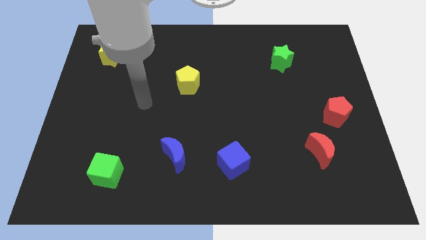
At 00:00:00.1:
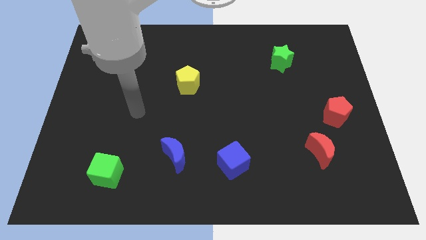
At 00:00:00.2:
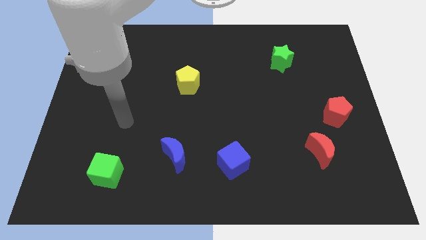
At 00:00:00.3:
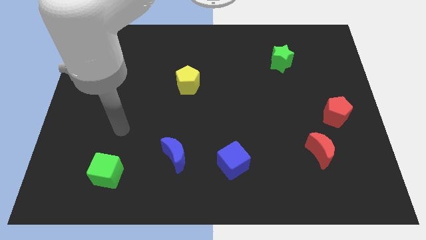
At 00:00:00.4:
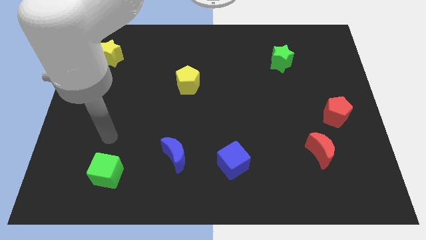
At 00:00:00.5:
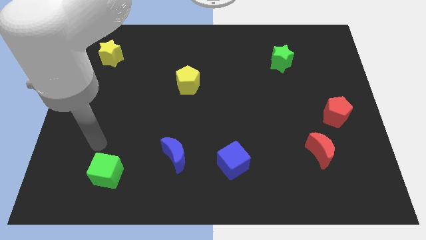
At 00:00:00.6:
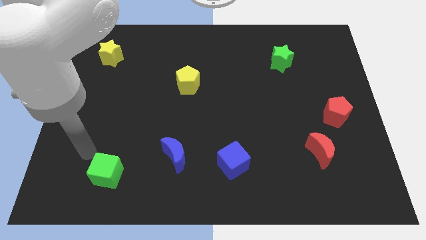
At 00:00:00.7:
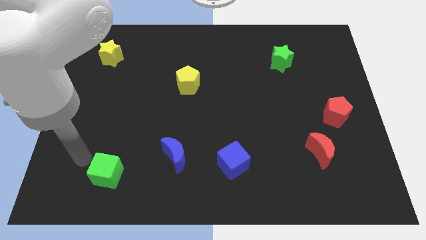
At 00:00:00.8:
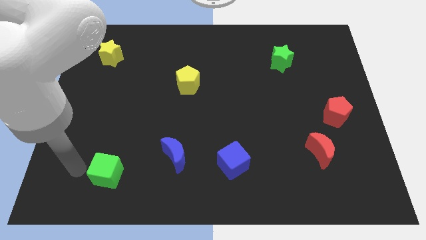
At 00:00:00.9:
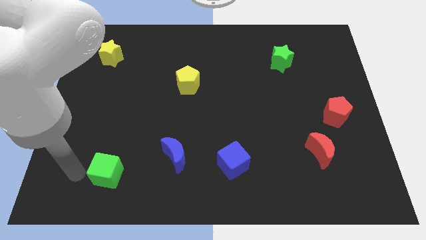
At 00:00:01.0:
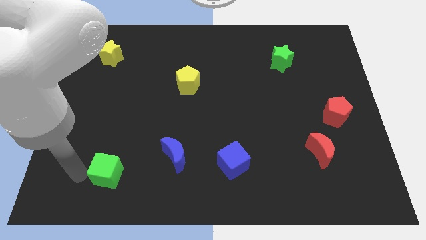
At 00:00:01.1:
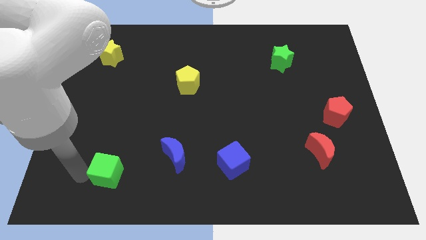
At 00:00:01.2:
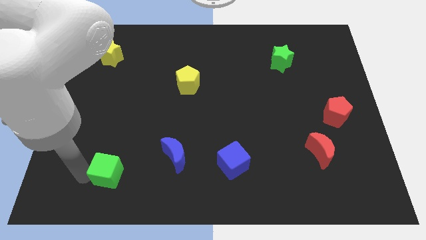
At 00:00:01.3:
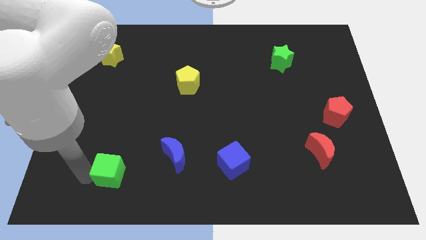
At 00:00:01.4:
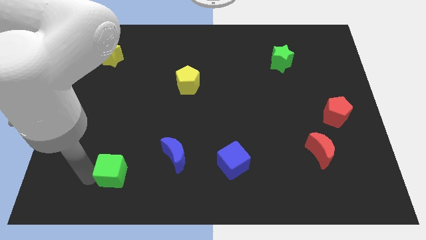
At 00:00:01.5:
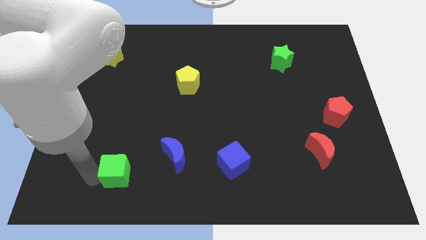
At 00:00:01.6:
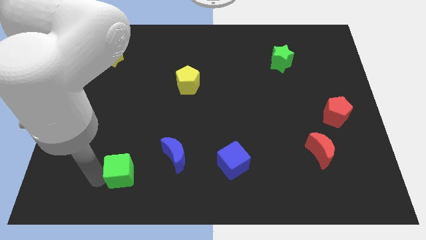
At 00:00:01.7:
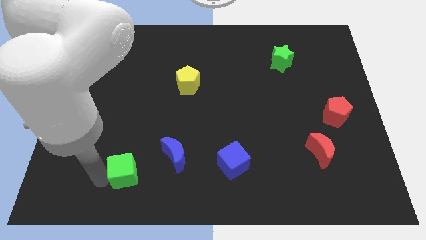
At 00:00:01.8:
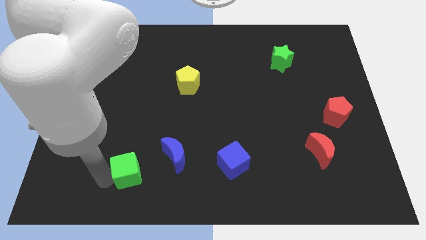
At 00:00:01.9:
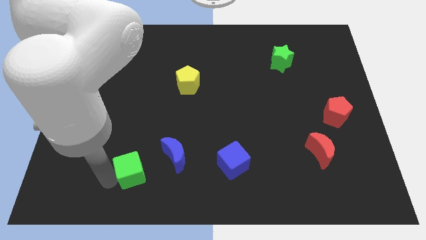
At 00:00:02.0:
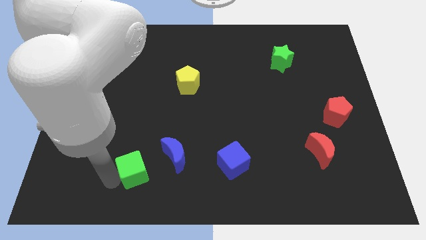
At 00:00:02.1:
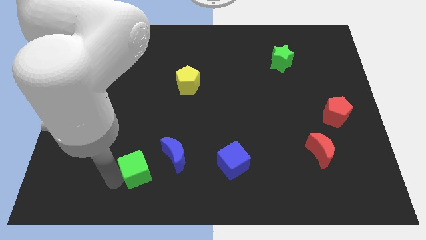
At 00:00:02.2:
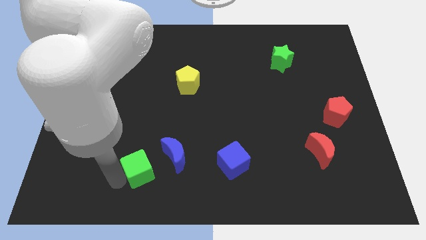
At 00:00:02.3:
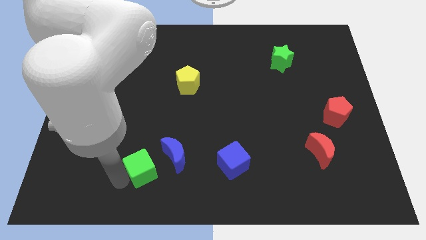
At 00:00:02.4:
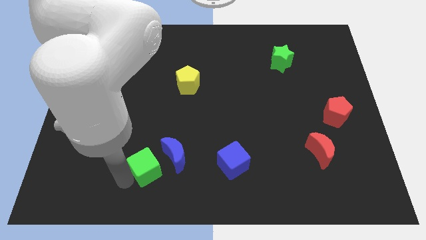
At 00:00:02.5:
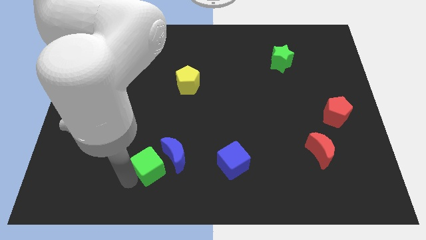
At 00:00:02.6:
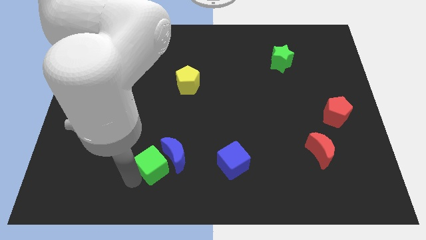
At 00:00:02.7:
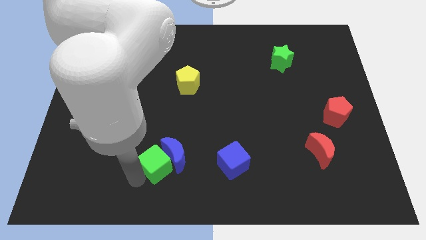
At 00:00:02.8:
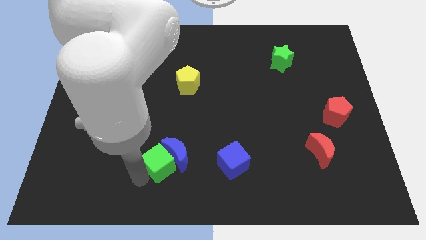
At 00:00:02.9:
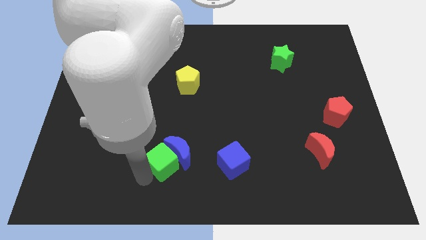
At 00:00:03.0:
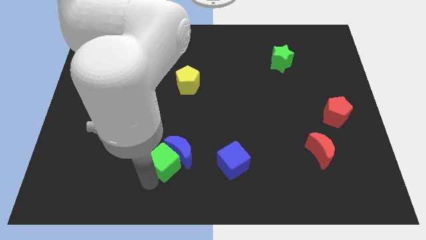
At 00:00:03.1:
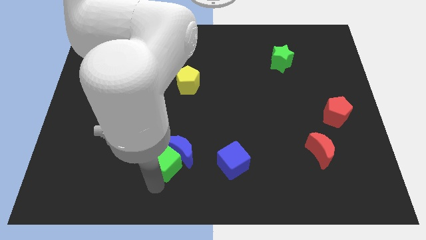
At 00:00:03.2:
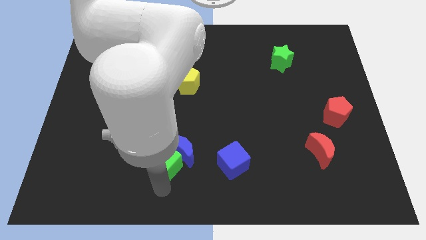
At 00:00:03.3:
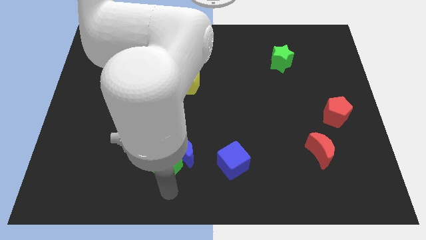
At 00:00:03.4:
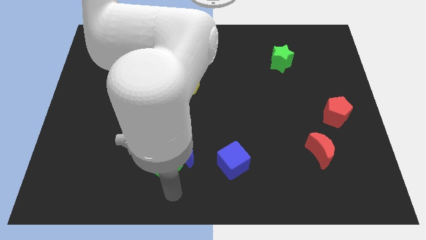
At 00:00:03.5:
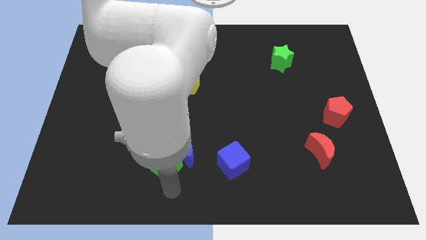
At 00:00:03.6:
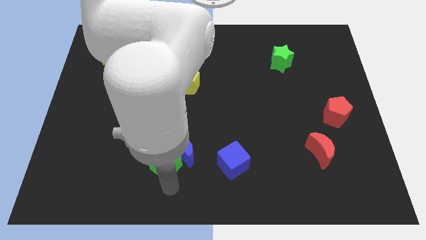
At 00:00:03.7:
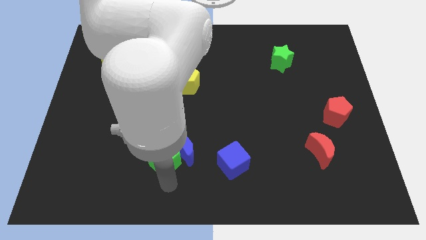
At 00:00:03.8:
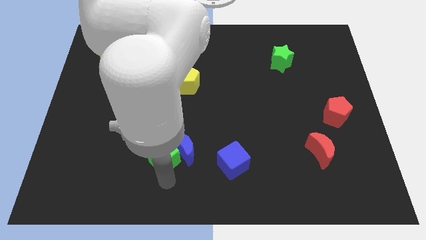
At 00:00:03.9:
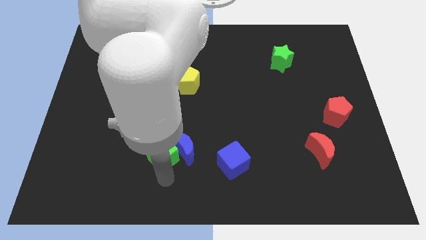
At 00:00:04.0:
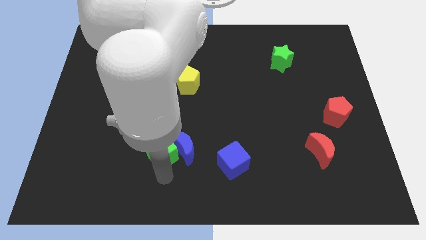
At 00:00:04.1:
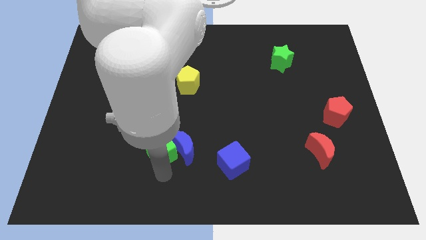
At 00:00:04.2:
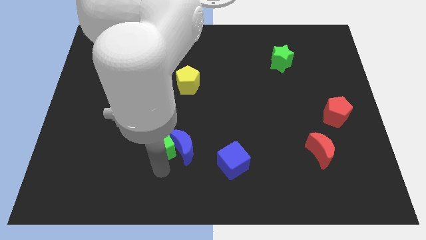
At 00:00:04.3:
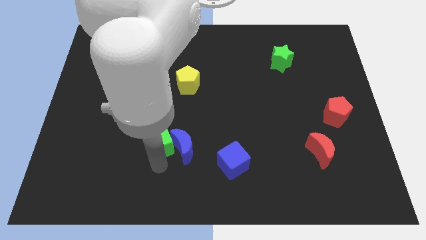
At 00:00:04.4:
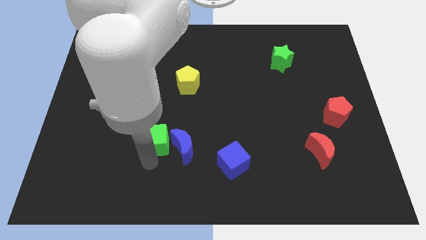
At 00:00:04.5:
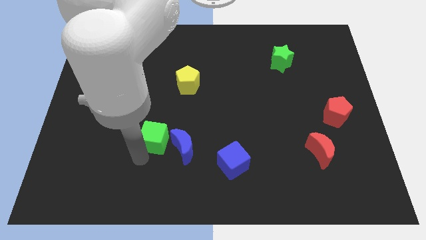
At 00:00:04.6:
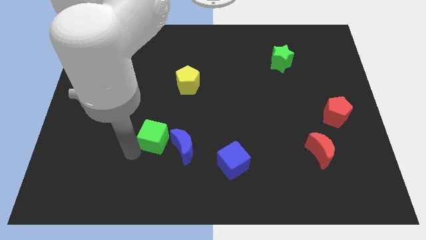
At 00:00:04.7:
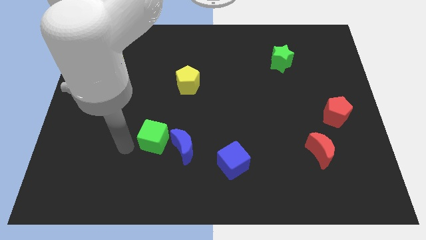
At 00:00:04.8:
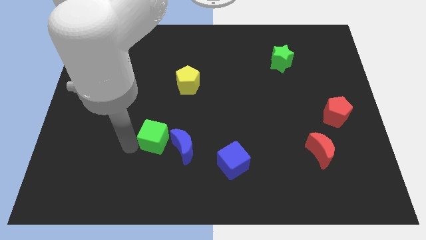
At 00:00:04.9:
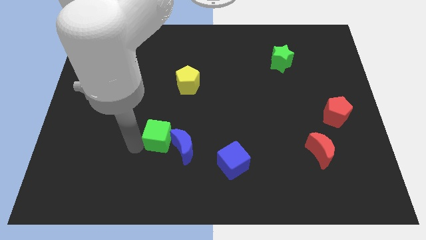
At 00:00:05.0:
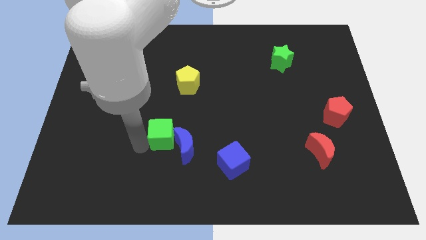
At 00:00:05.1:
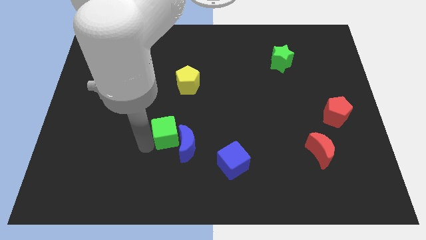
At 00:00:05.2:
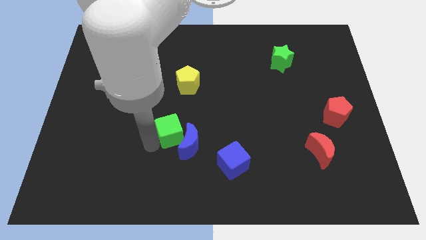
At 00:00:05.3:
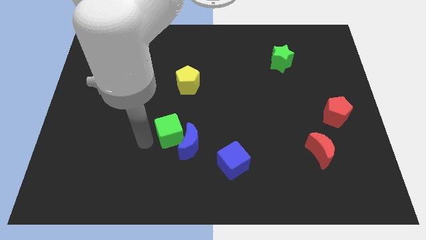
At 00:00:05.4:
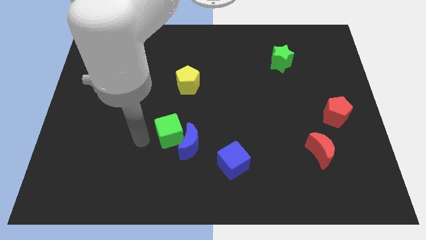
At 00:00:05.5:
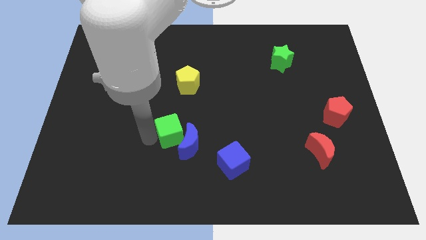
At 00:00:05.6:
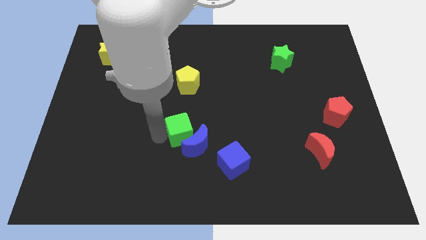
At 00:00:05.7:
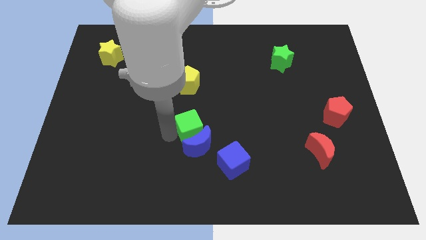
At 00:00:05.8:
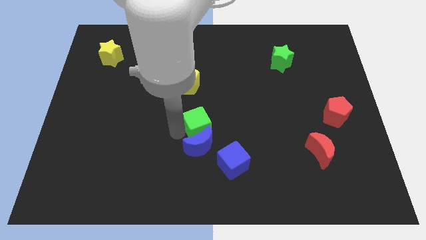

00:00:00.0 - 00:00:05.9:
push the green cube to the top right of the blue moon

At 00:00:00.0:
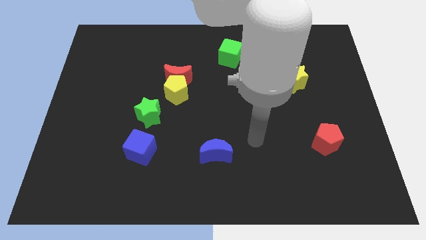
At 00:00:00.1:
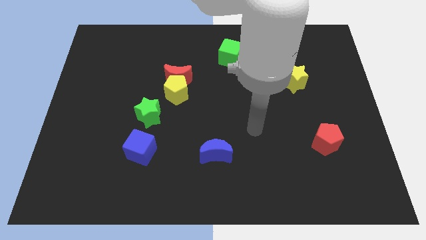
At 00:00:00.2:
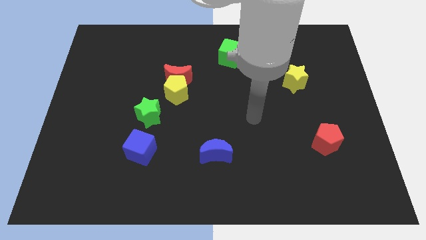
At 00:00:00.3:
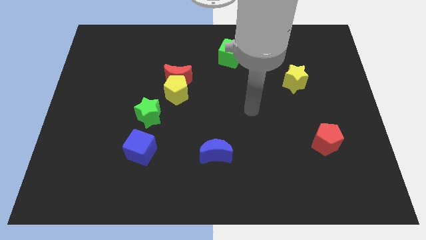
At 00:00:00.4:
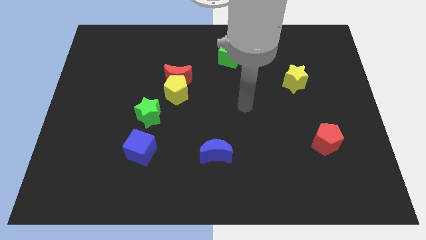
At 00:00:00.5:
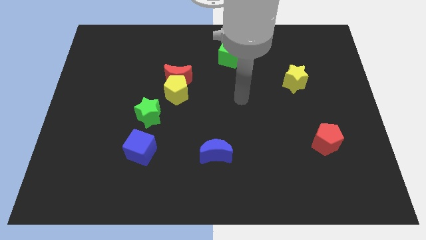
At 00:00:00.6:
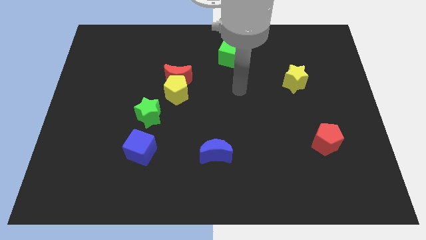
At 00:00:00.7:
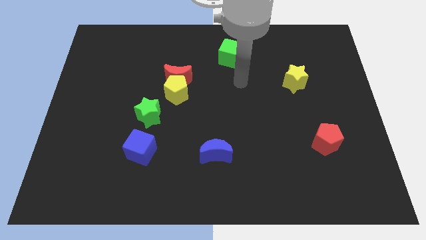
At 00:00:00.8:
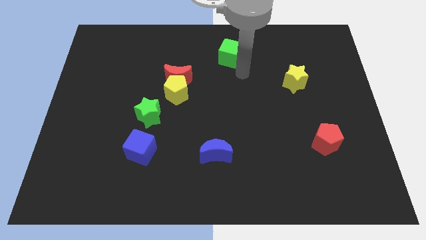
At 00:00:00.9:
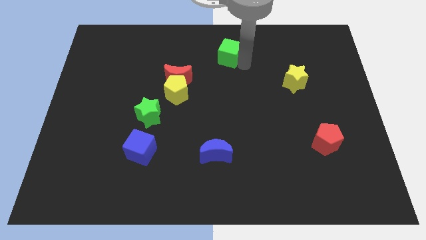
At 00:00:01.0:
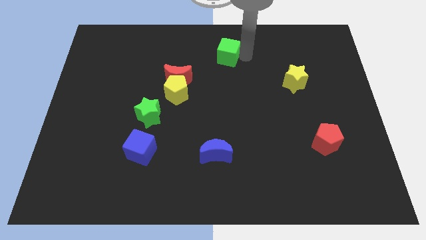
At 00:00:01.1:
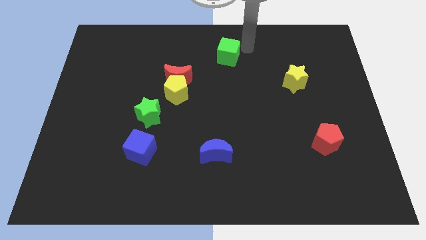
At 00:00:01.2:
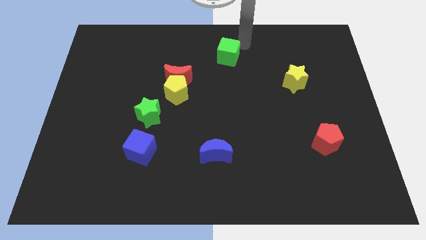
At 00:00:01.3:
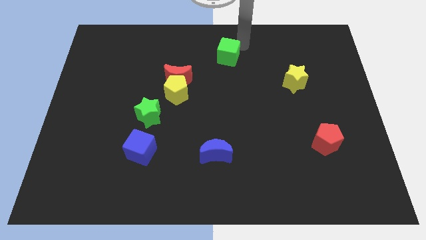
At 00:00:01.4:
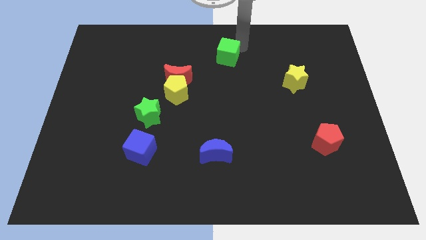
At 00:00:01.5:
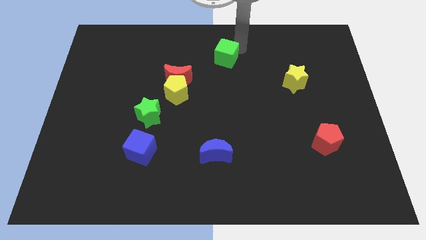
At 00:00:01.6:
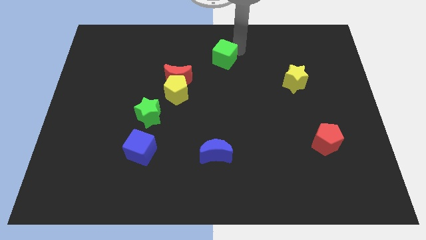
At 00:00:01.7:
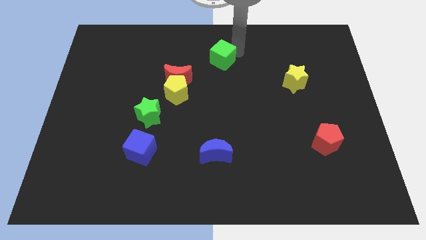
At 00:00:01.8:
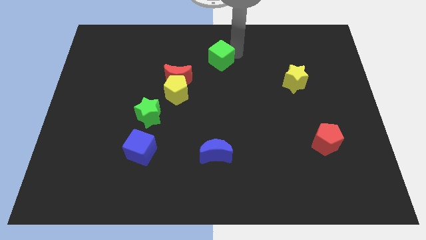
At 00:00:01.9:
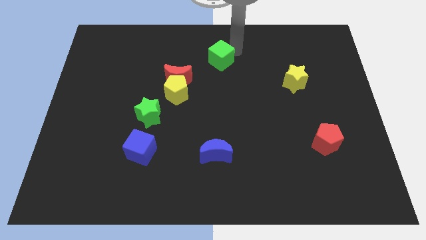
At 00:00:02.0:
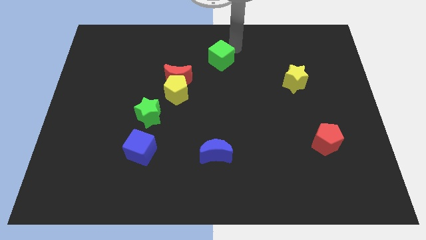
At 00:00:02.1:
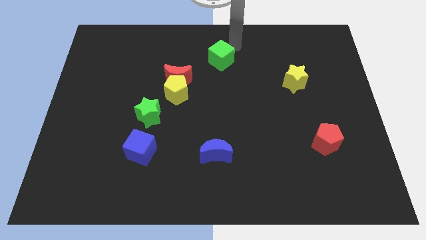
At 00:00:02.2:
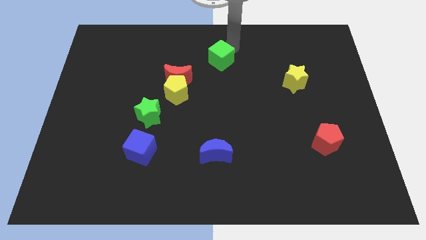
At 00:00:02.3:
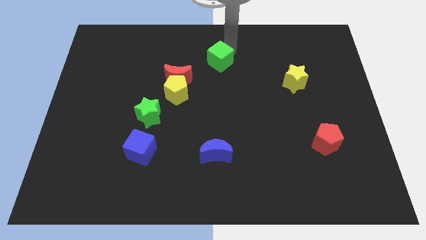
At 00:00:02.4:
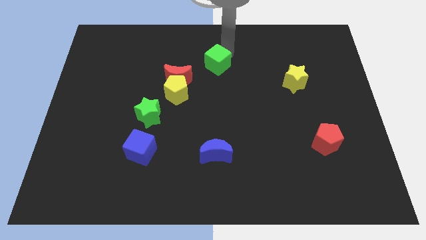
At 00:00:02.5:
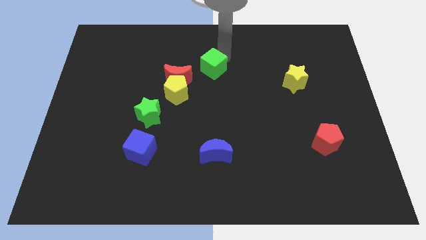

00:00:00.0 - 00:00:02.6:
push the green cube to the top right of the yellow pentagon
